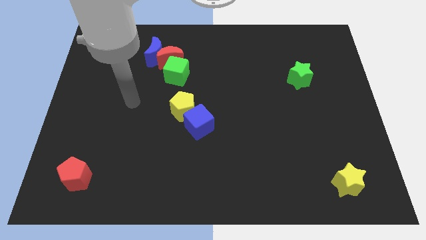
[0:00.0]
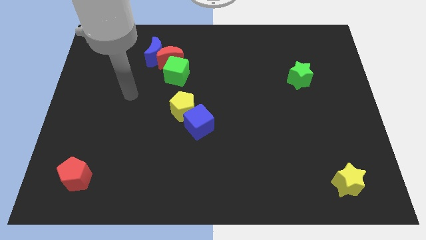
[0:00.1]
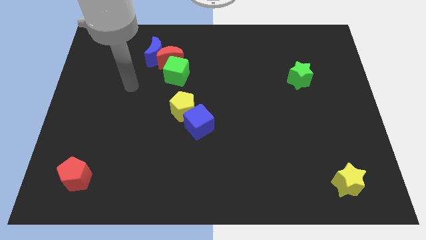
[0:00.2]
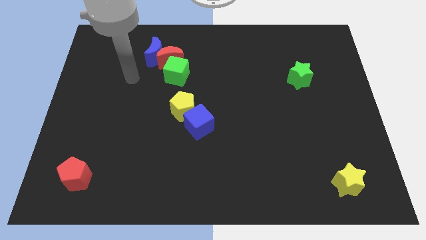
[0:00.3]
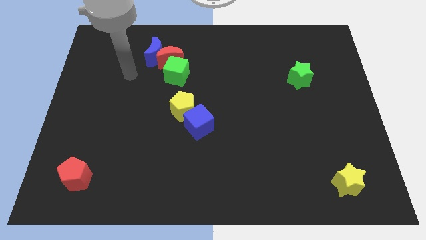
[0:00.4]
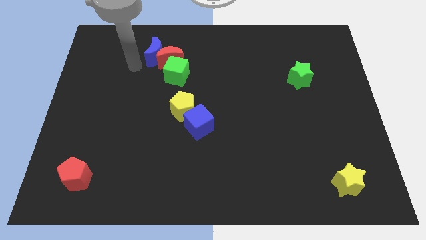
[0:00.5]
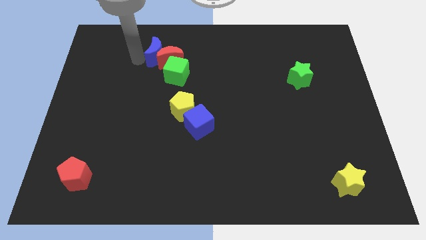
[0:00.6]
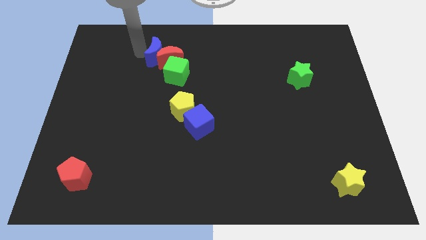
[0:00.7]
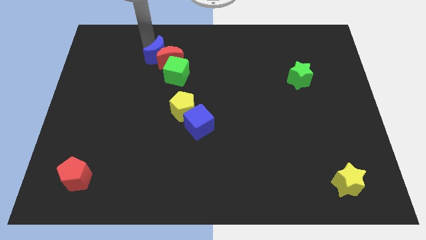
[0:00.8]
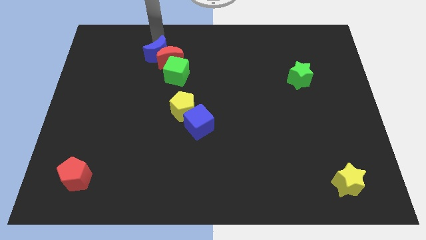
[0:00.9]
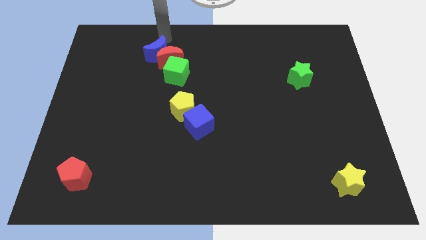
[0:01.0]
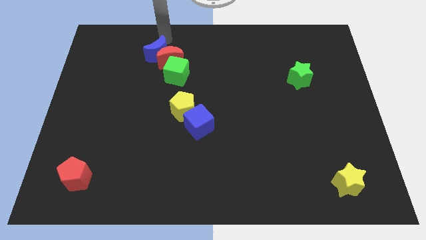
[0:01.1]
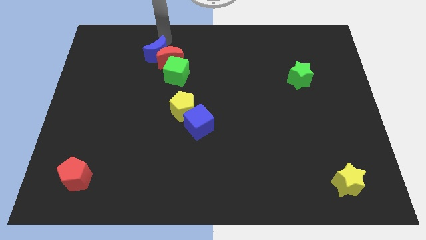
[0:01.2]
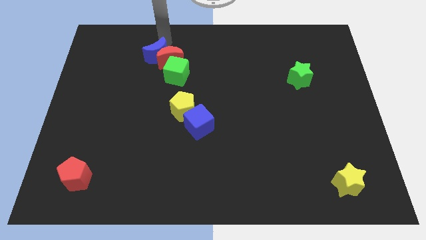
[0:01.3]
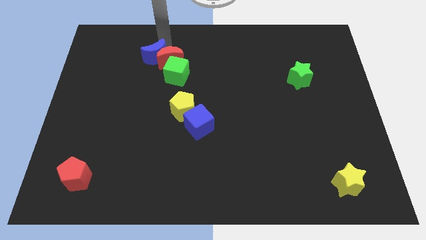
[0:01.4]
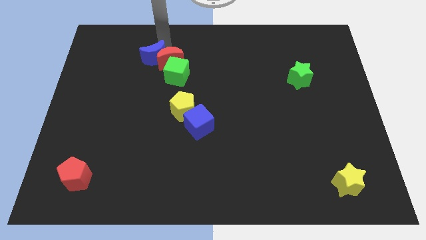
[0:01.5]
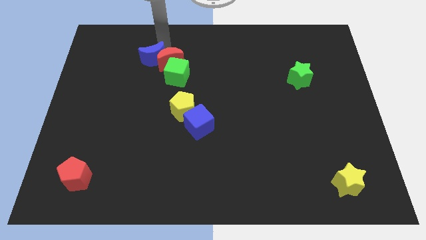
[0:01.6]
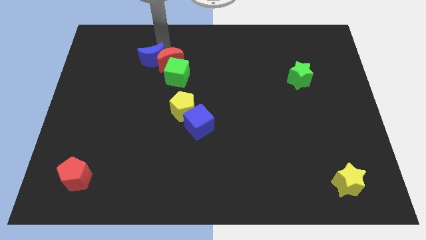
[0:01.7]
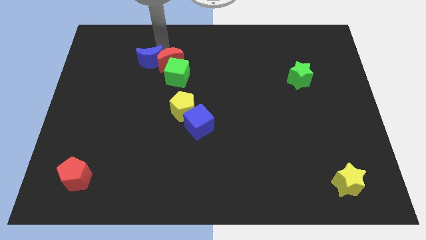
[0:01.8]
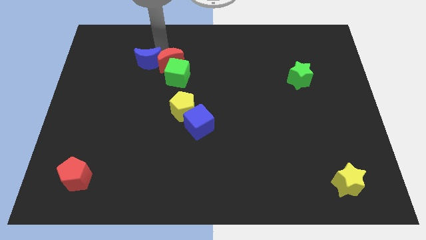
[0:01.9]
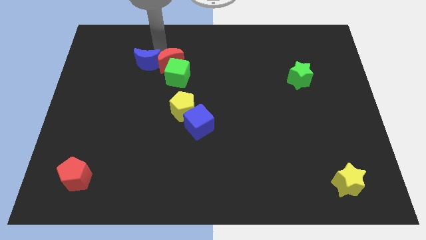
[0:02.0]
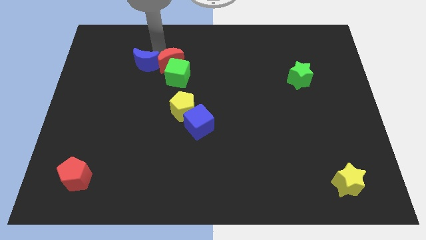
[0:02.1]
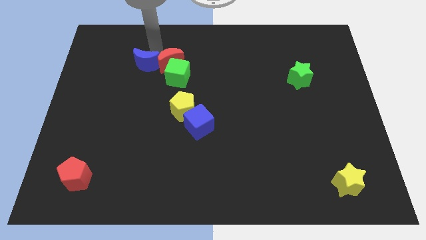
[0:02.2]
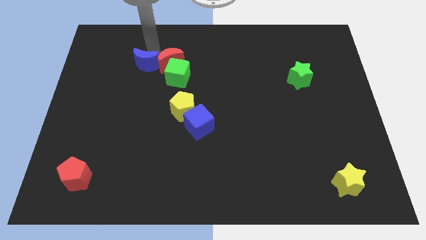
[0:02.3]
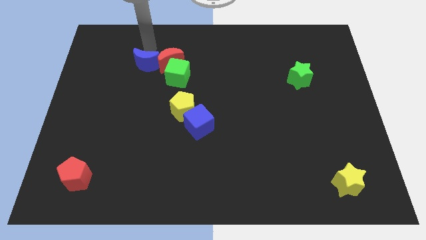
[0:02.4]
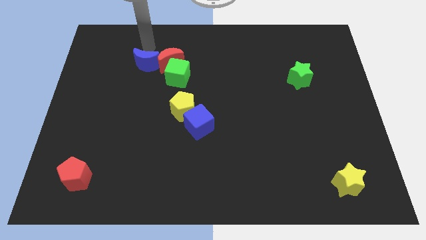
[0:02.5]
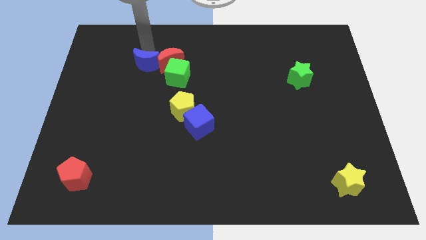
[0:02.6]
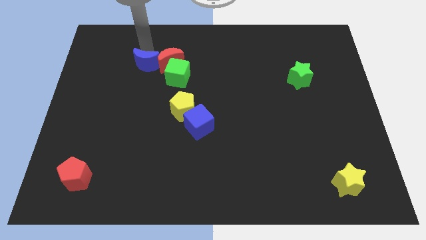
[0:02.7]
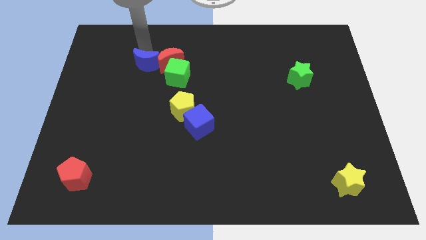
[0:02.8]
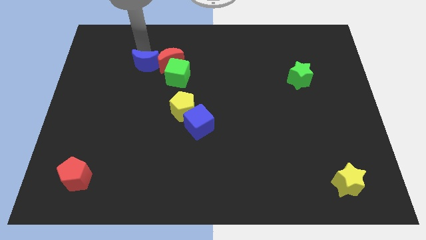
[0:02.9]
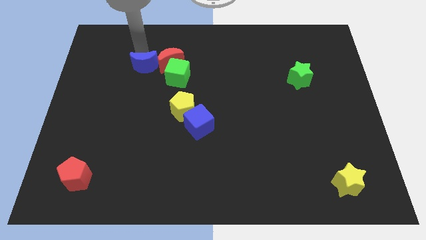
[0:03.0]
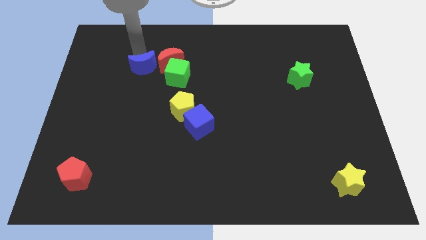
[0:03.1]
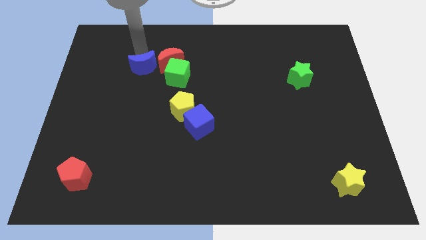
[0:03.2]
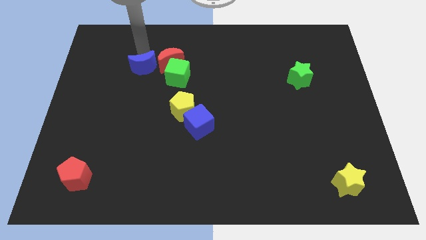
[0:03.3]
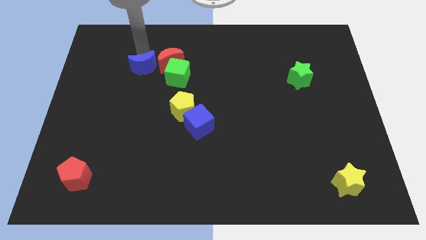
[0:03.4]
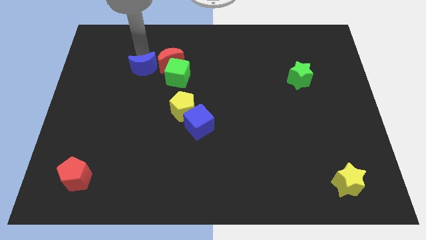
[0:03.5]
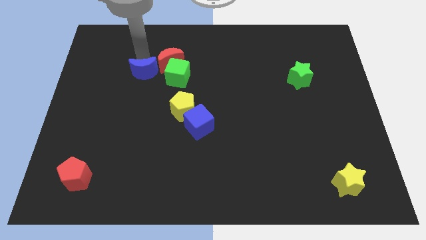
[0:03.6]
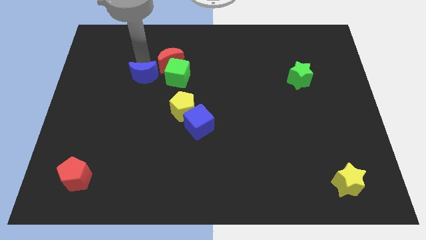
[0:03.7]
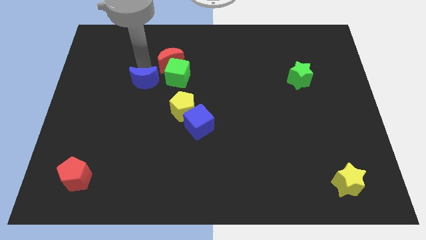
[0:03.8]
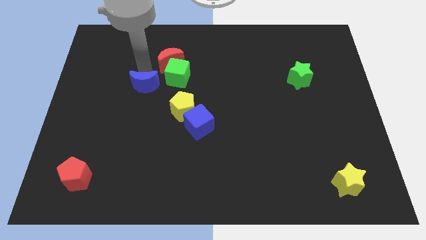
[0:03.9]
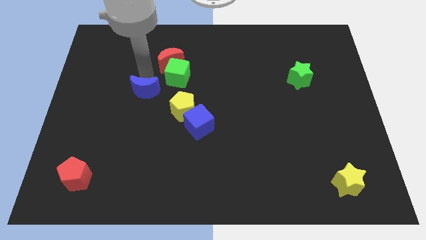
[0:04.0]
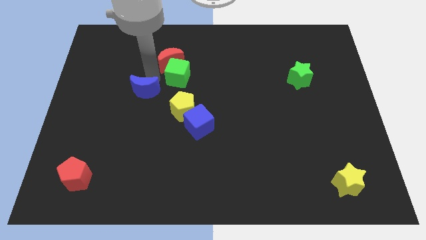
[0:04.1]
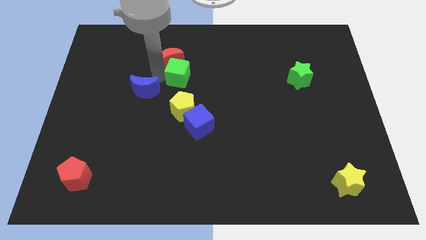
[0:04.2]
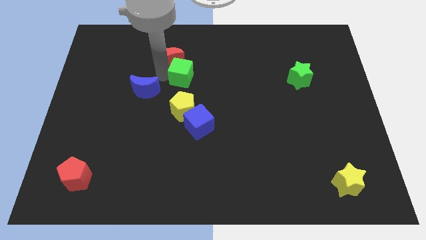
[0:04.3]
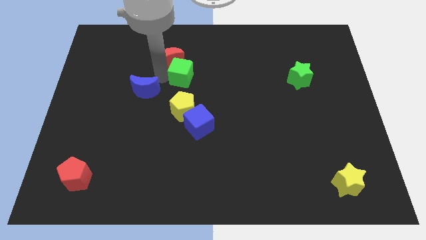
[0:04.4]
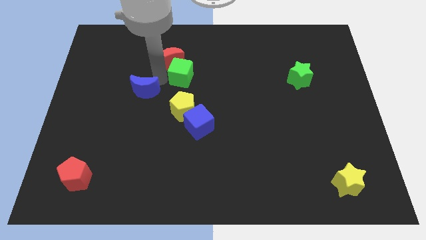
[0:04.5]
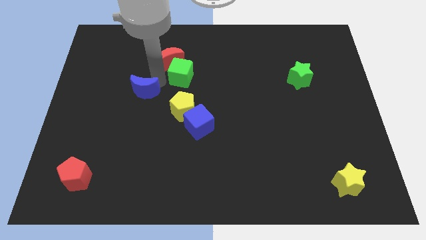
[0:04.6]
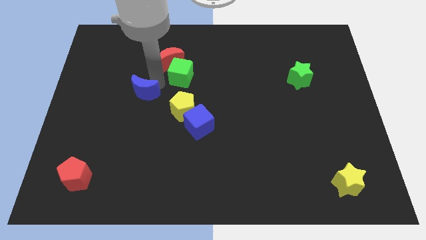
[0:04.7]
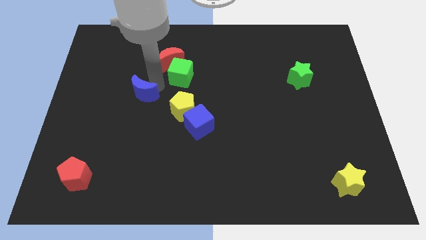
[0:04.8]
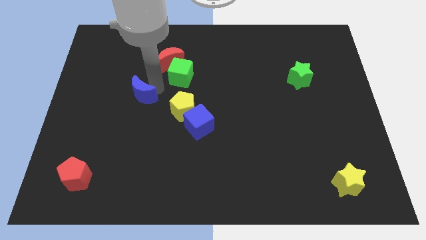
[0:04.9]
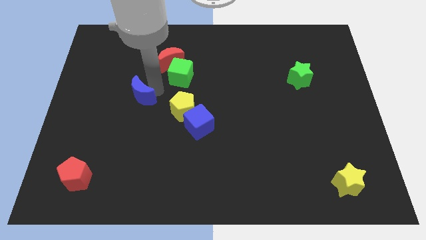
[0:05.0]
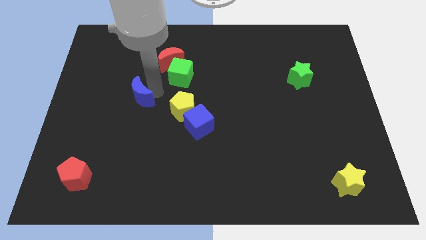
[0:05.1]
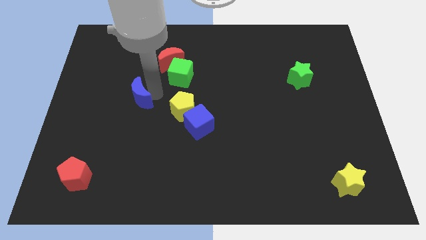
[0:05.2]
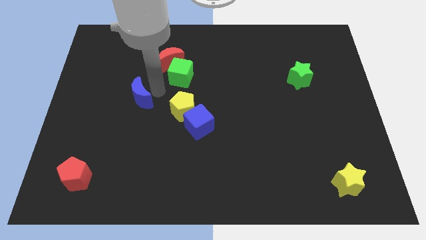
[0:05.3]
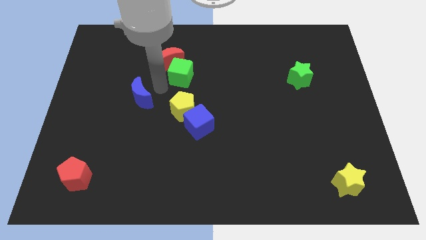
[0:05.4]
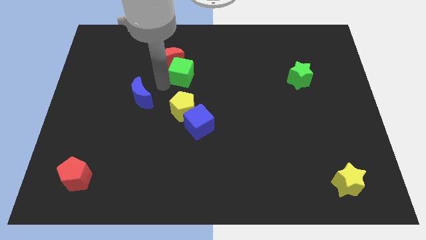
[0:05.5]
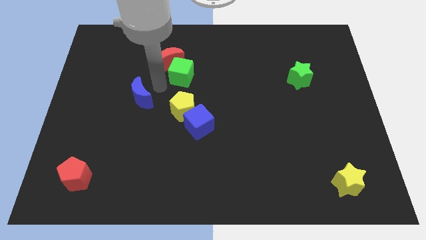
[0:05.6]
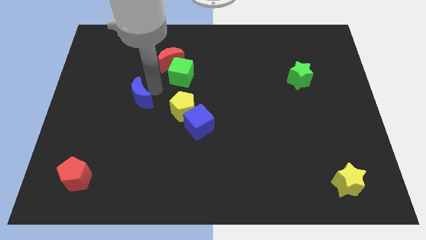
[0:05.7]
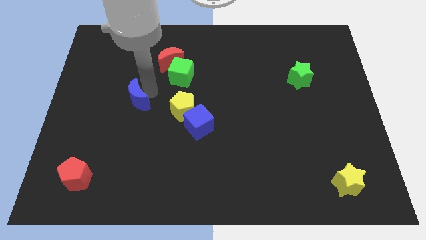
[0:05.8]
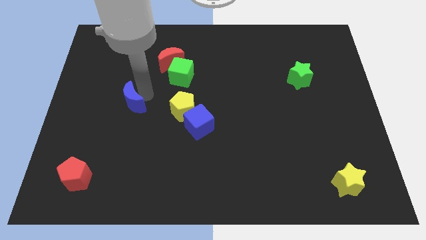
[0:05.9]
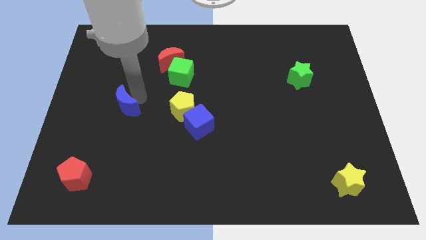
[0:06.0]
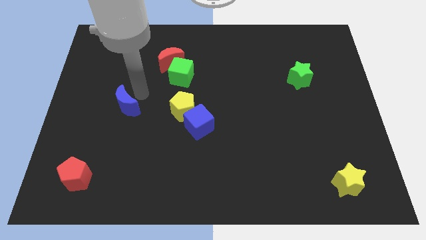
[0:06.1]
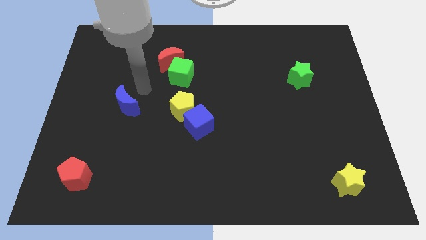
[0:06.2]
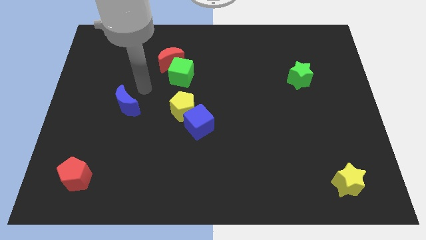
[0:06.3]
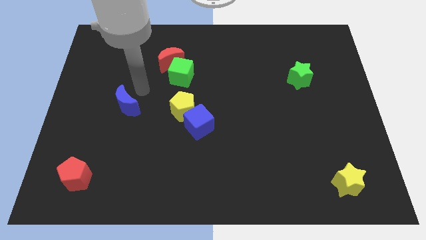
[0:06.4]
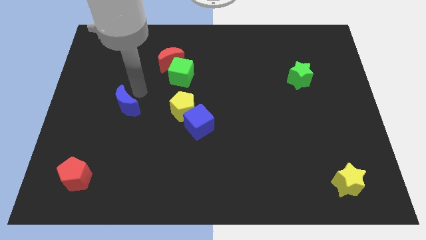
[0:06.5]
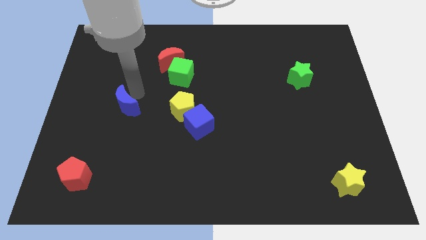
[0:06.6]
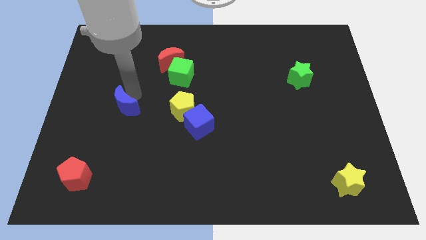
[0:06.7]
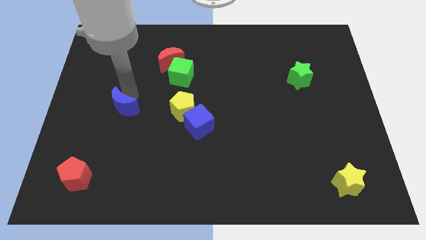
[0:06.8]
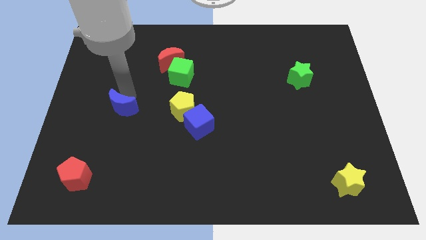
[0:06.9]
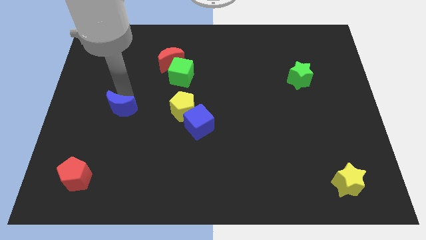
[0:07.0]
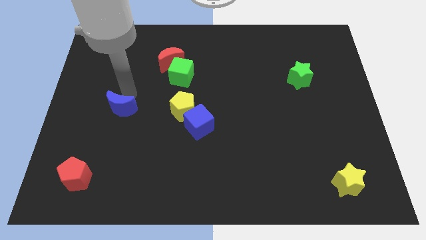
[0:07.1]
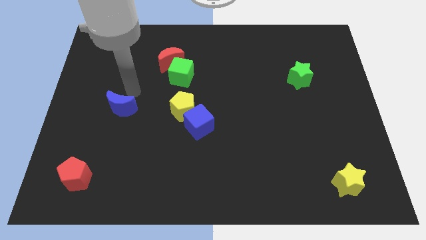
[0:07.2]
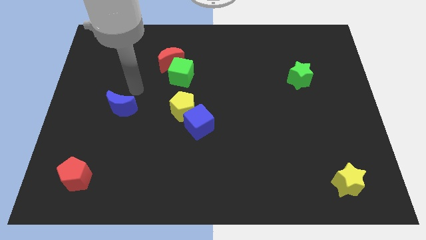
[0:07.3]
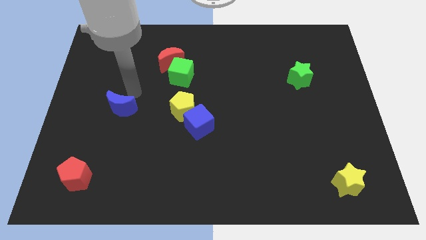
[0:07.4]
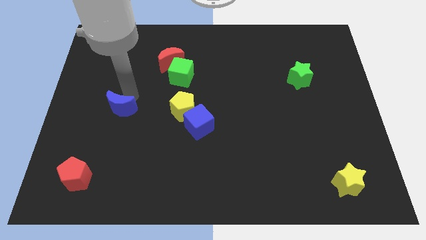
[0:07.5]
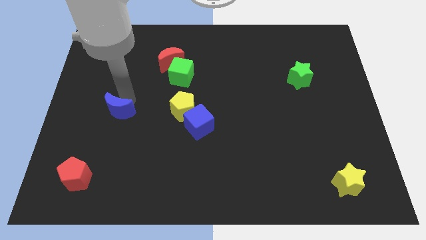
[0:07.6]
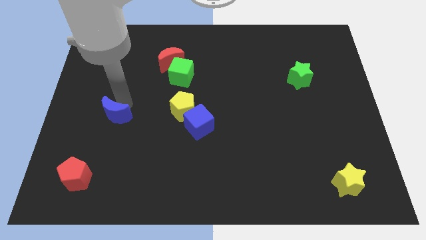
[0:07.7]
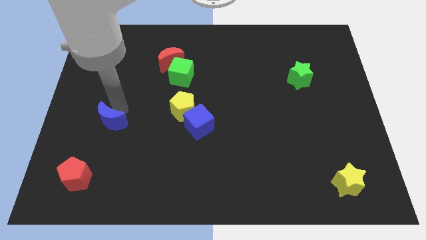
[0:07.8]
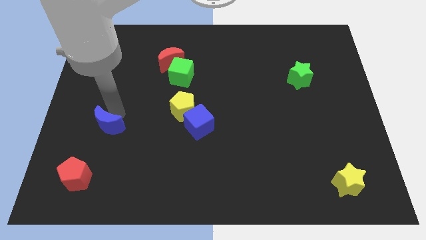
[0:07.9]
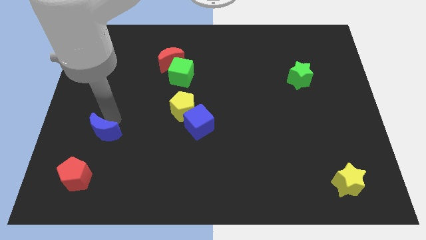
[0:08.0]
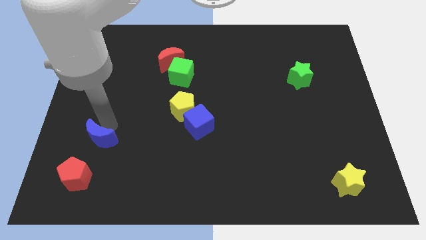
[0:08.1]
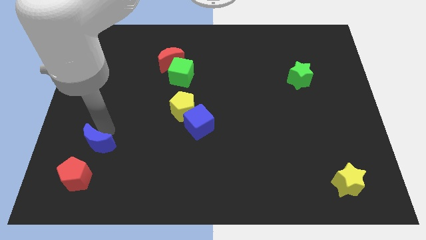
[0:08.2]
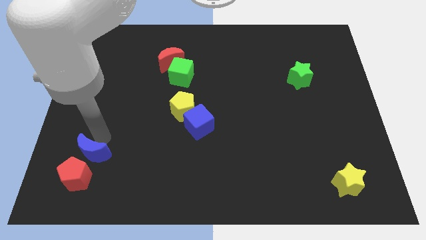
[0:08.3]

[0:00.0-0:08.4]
move the blue moon next to the red pentagon
